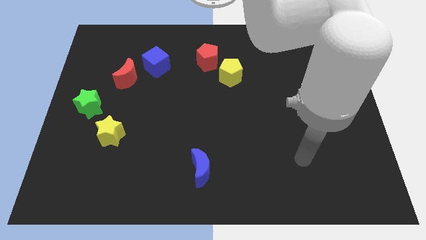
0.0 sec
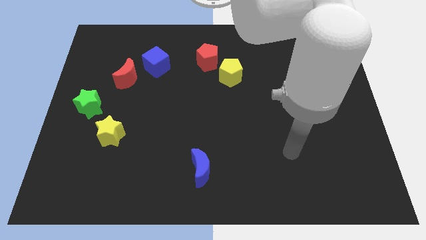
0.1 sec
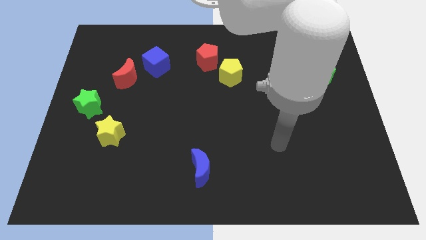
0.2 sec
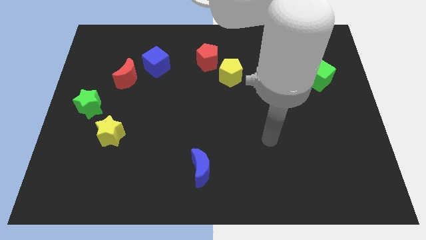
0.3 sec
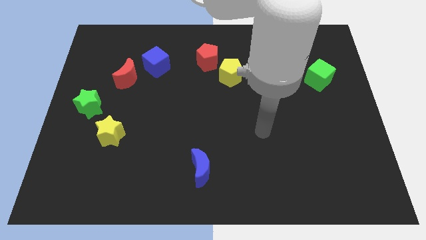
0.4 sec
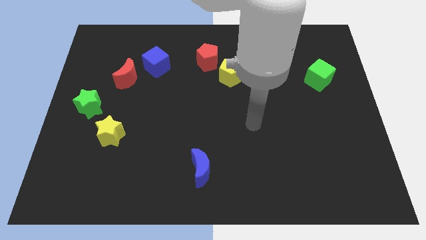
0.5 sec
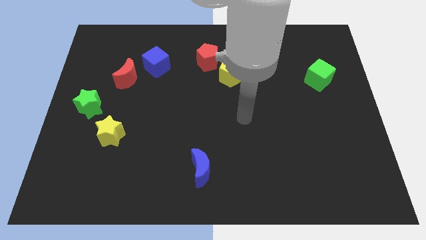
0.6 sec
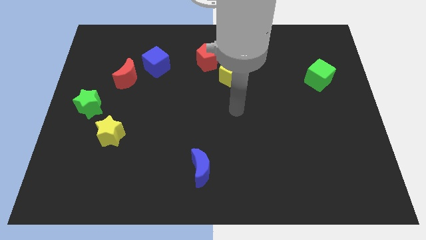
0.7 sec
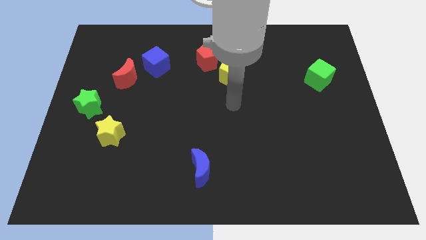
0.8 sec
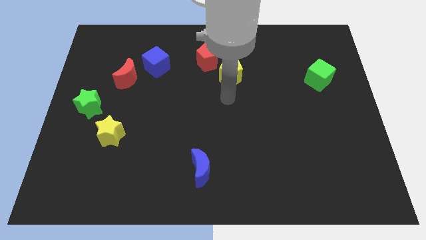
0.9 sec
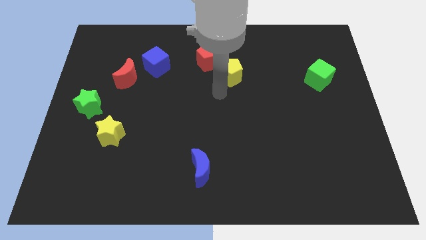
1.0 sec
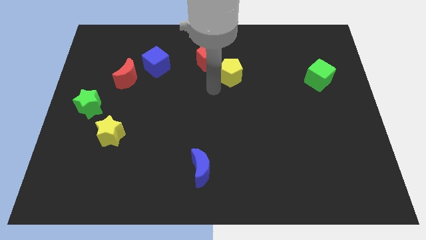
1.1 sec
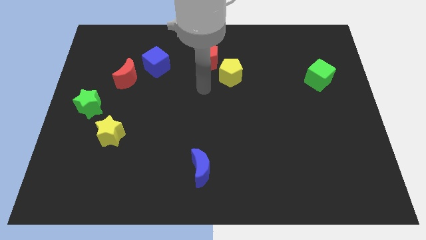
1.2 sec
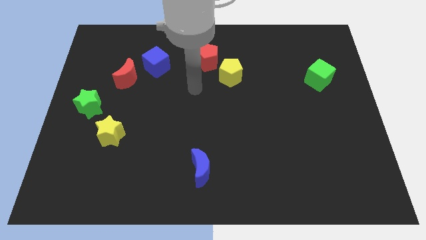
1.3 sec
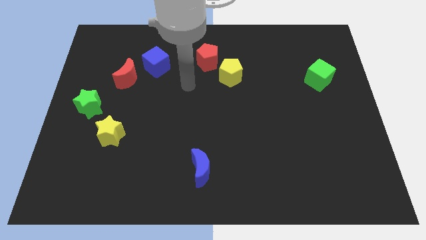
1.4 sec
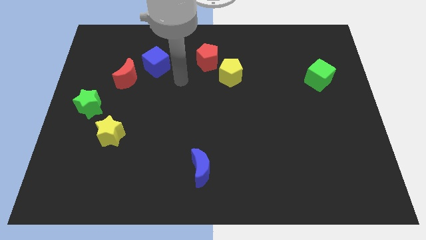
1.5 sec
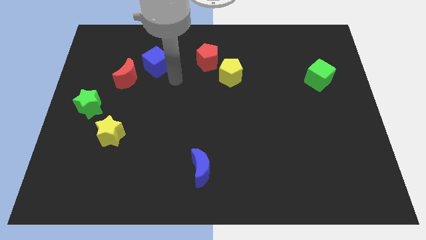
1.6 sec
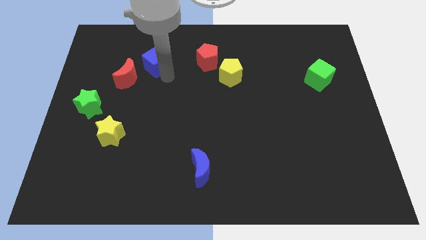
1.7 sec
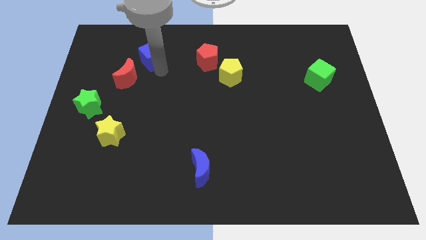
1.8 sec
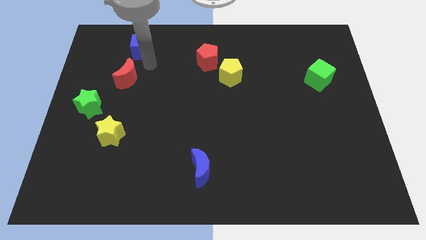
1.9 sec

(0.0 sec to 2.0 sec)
move the red moon away from the blue cube

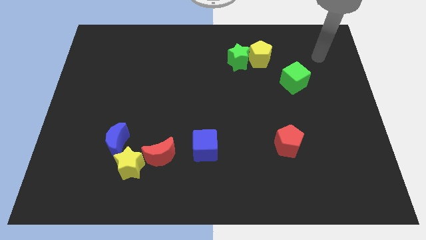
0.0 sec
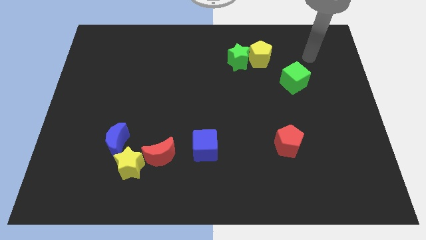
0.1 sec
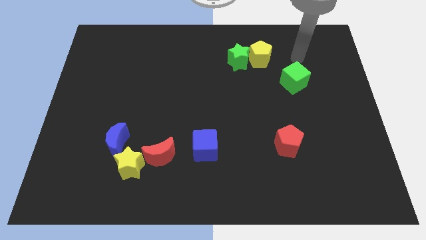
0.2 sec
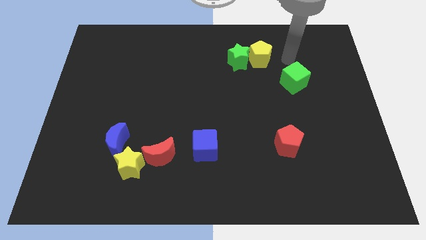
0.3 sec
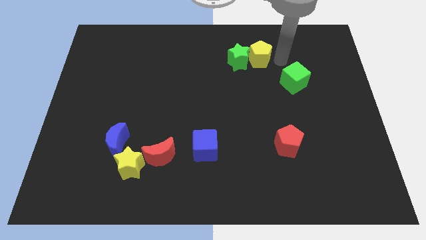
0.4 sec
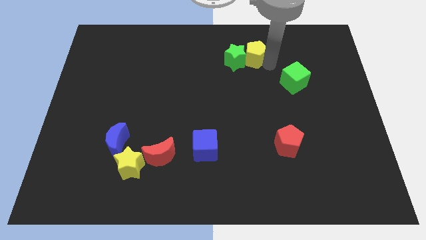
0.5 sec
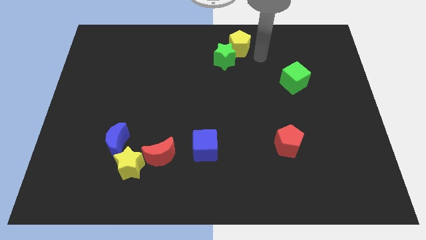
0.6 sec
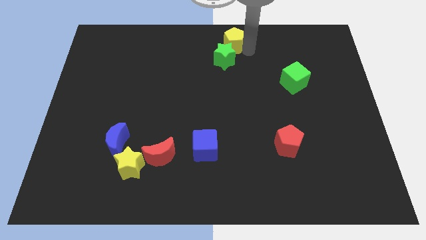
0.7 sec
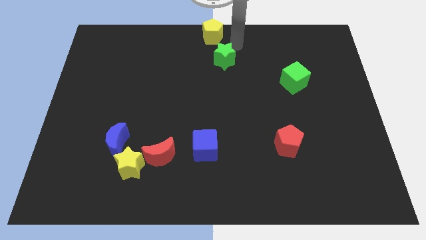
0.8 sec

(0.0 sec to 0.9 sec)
separate the green star from the yellow pentagon

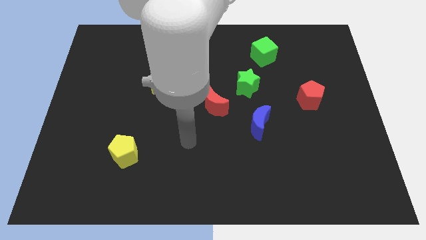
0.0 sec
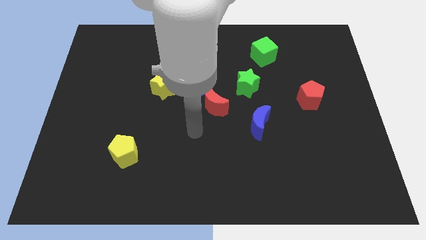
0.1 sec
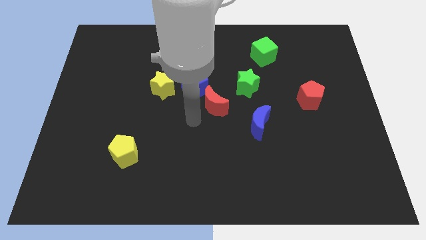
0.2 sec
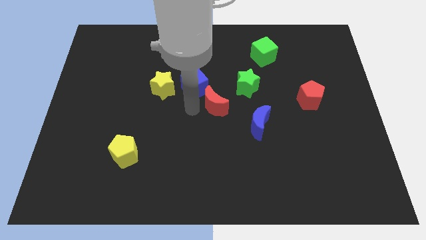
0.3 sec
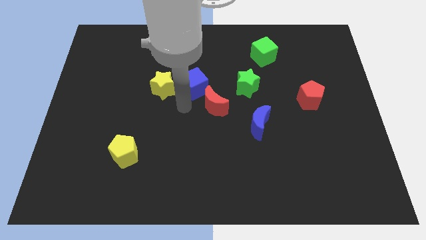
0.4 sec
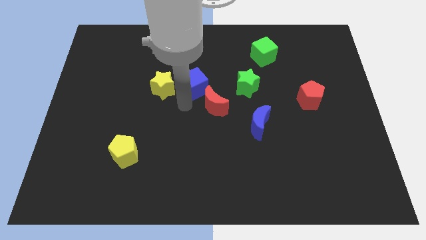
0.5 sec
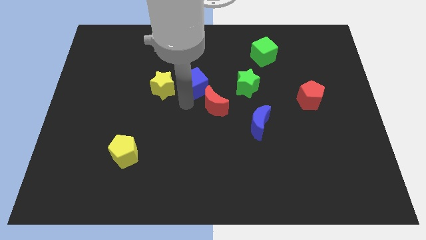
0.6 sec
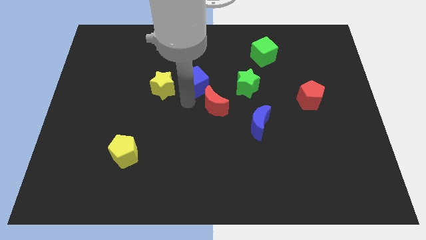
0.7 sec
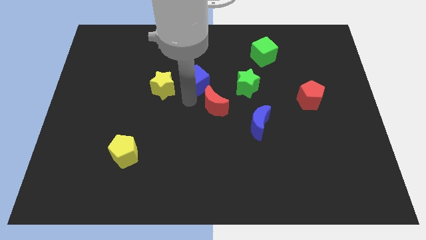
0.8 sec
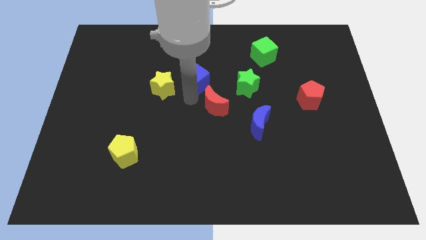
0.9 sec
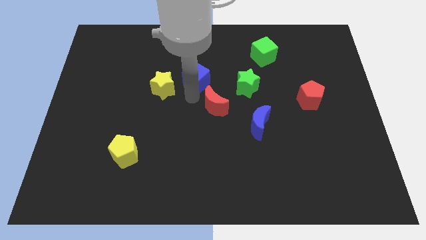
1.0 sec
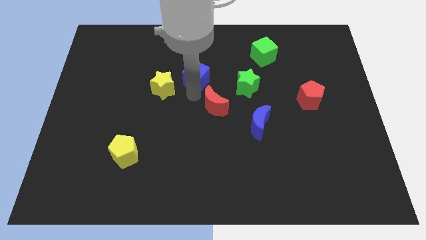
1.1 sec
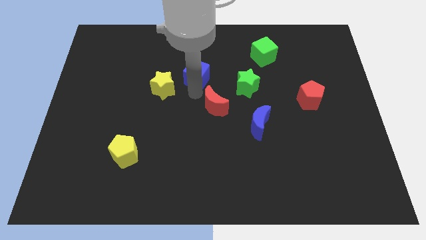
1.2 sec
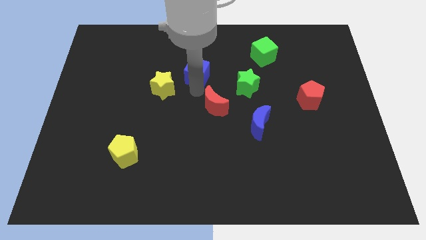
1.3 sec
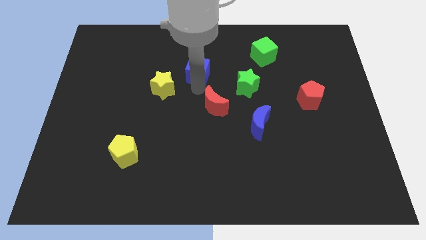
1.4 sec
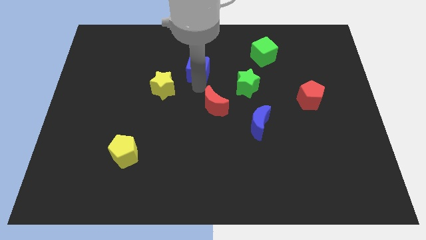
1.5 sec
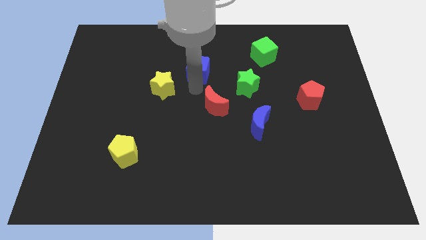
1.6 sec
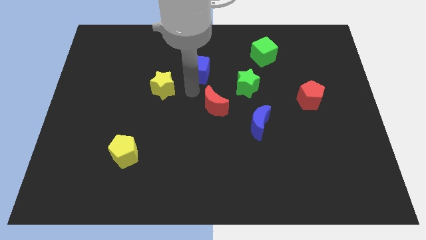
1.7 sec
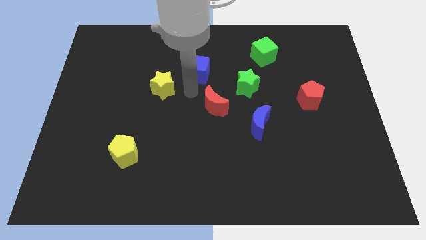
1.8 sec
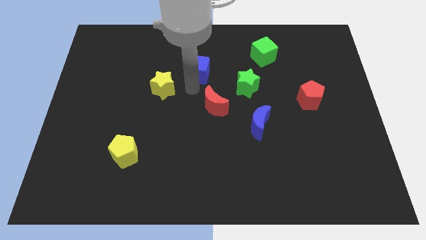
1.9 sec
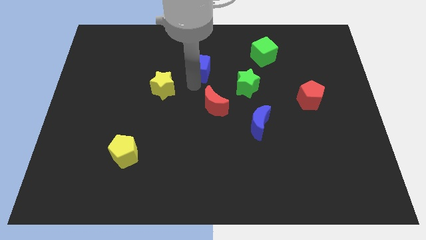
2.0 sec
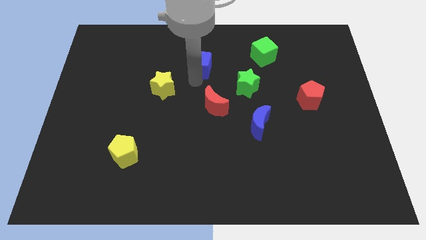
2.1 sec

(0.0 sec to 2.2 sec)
pull the blue cube apart from the red moon and yellow star

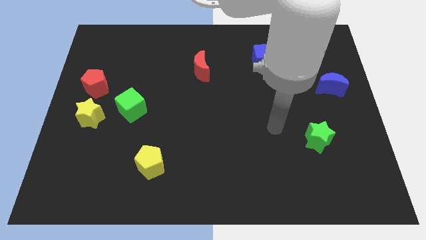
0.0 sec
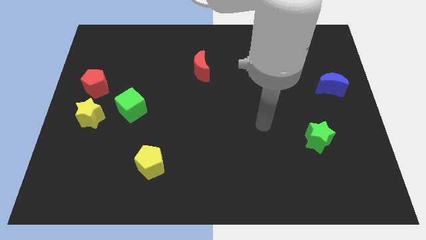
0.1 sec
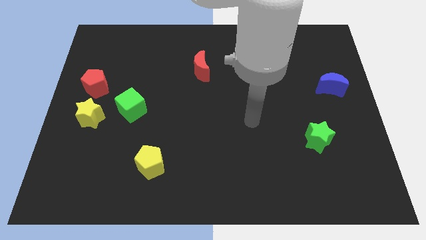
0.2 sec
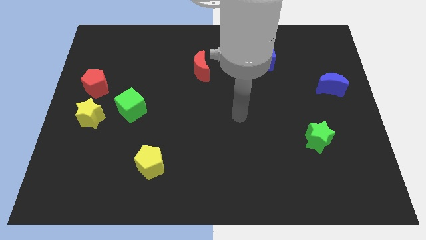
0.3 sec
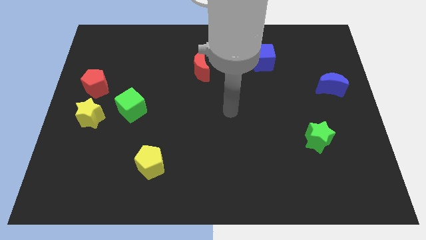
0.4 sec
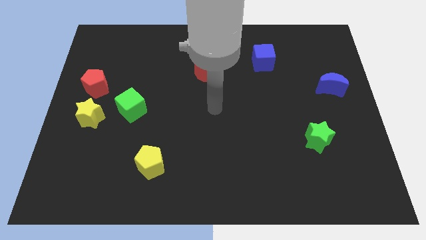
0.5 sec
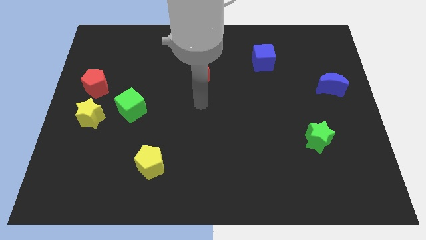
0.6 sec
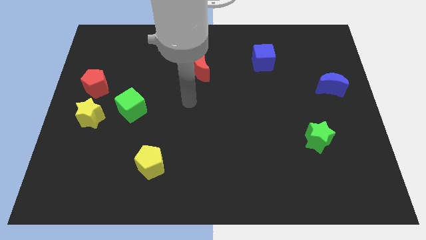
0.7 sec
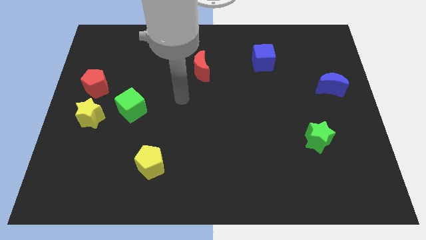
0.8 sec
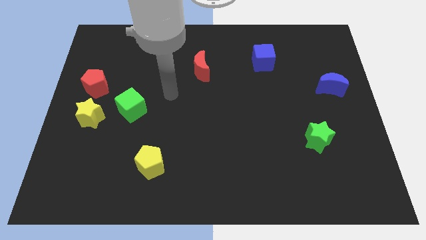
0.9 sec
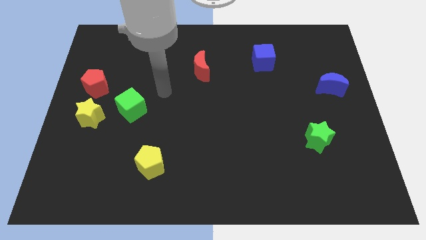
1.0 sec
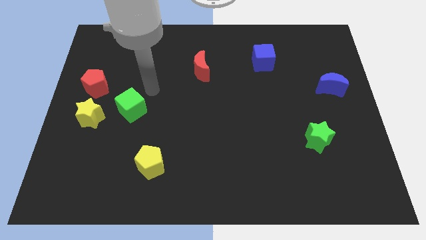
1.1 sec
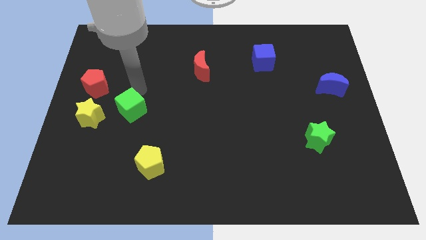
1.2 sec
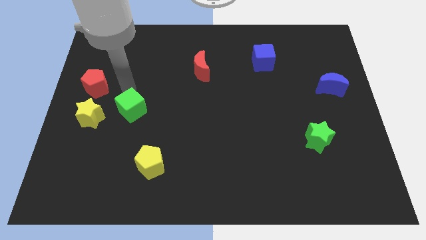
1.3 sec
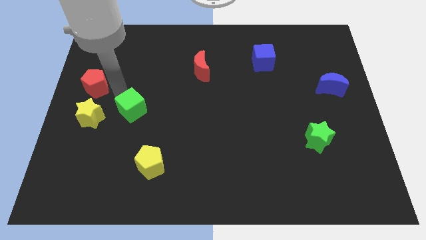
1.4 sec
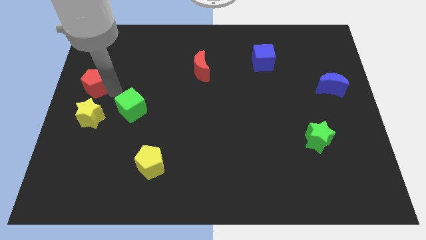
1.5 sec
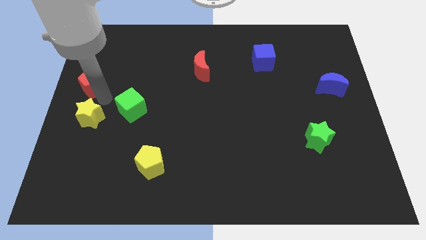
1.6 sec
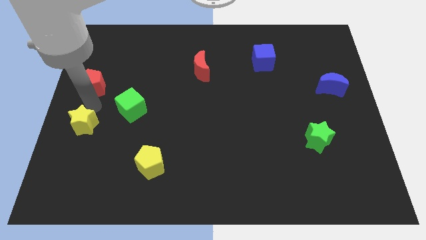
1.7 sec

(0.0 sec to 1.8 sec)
separate the red pentagon from the yellow star

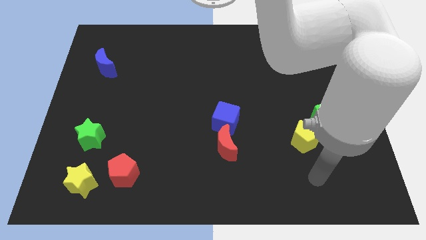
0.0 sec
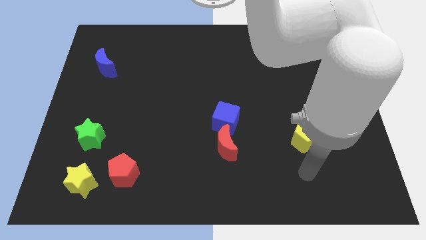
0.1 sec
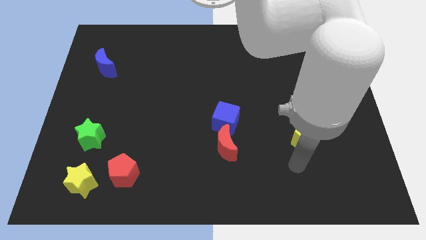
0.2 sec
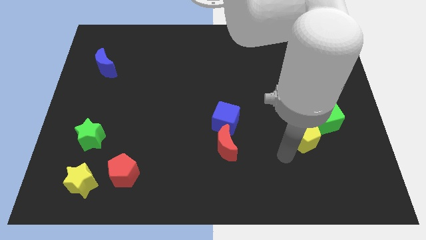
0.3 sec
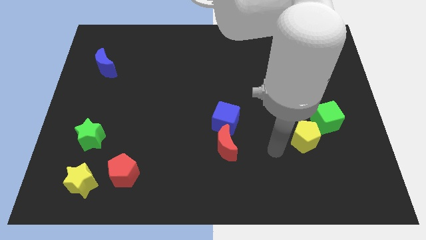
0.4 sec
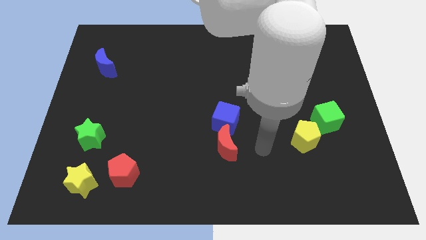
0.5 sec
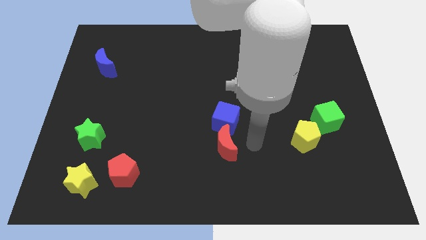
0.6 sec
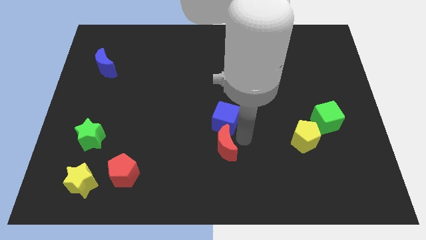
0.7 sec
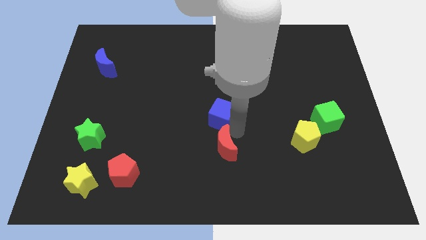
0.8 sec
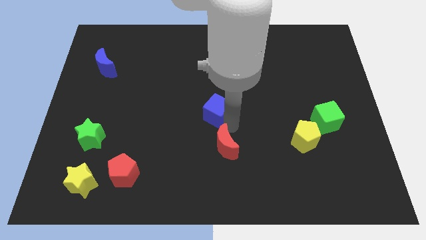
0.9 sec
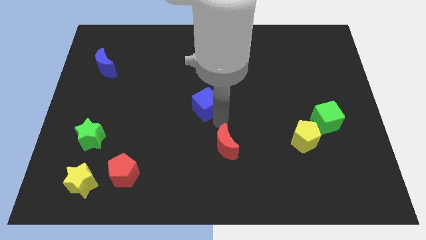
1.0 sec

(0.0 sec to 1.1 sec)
separate the red moon from the blue cube

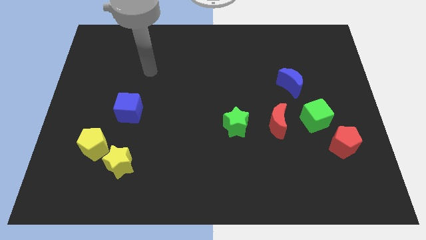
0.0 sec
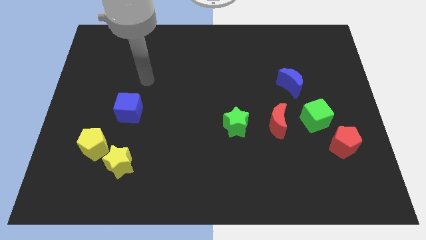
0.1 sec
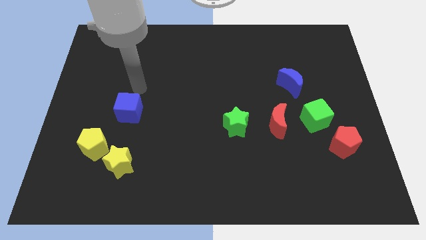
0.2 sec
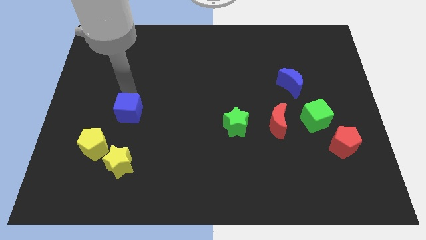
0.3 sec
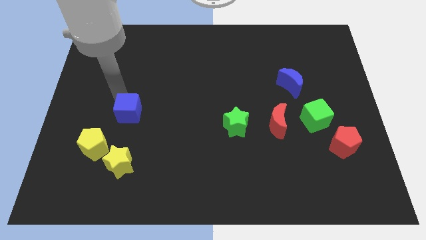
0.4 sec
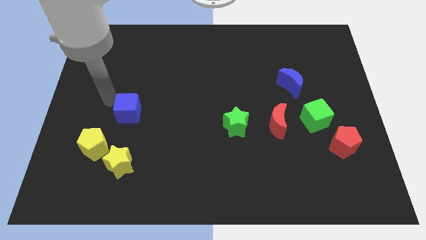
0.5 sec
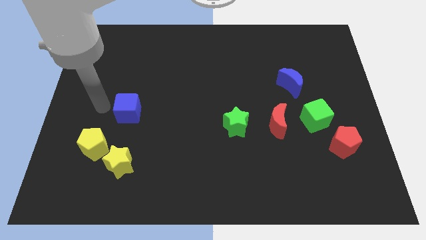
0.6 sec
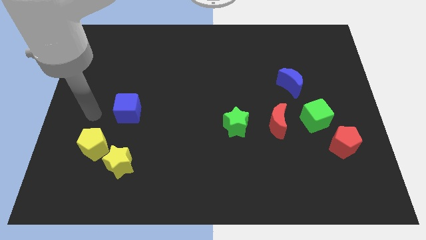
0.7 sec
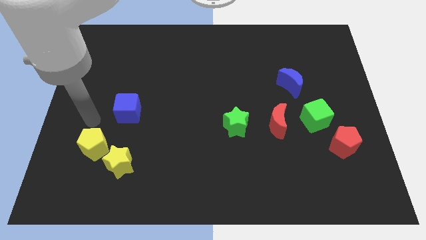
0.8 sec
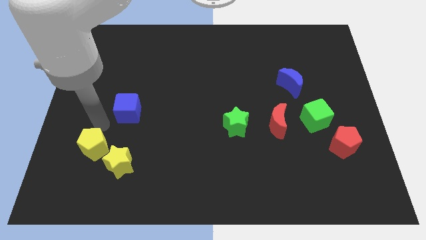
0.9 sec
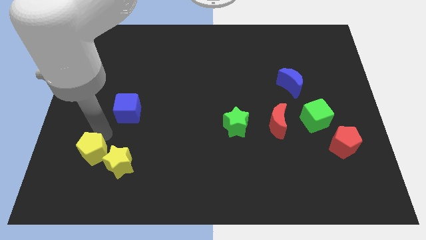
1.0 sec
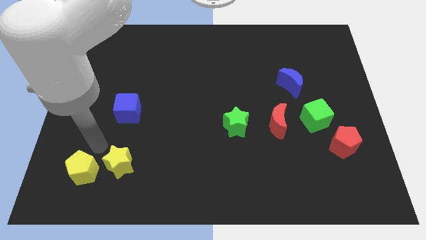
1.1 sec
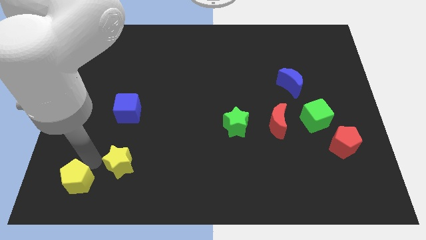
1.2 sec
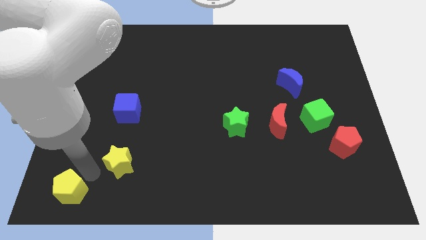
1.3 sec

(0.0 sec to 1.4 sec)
separate the yellow star from the yellow pentagon
